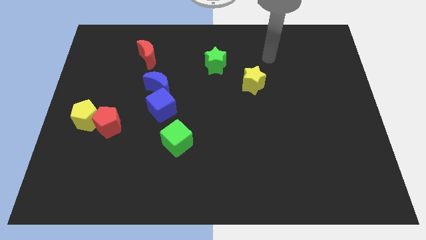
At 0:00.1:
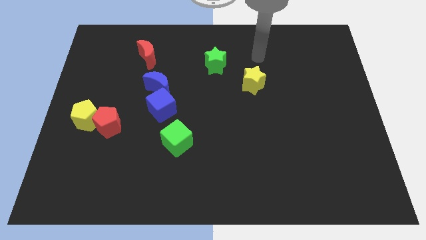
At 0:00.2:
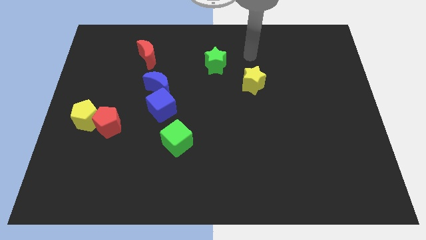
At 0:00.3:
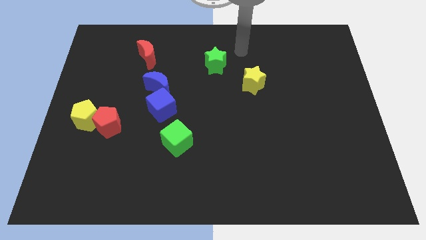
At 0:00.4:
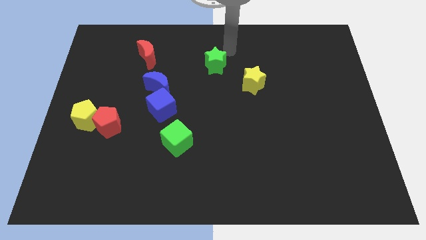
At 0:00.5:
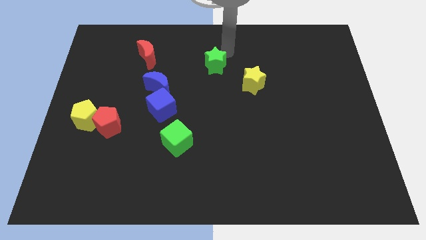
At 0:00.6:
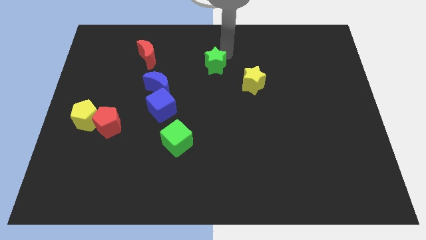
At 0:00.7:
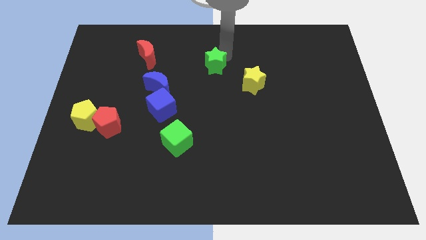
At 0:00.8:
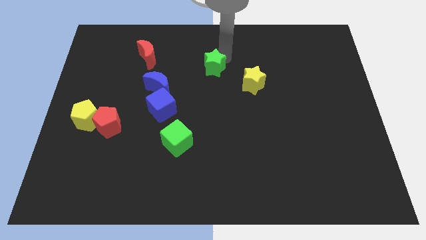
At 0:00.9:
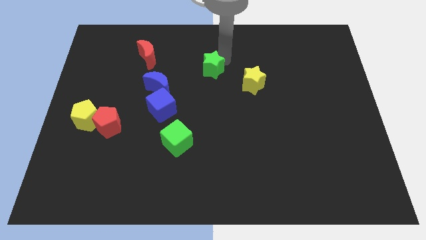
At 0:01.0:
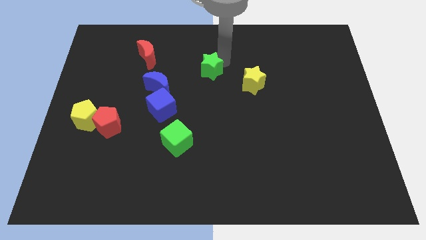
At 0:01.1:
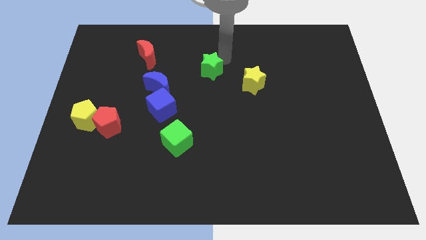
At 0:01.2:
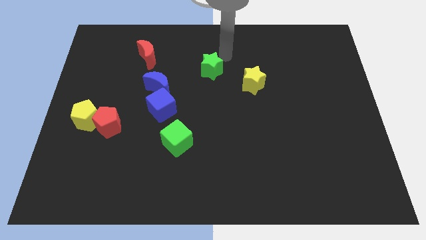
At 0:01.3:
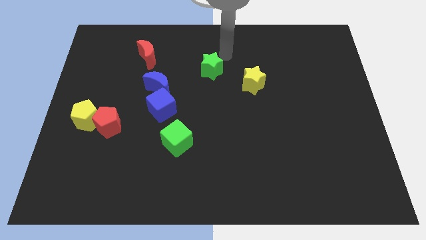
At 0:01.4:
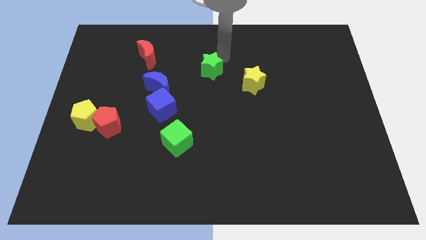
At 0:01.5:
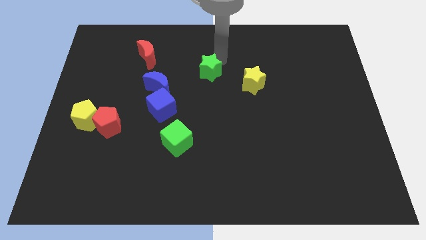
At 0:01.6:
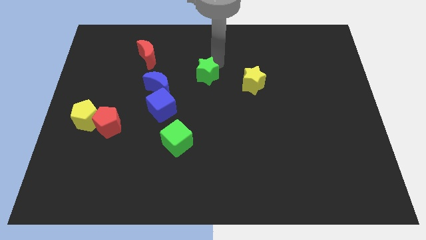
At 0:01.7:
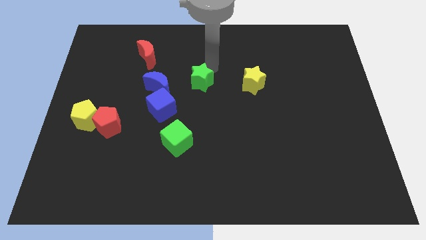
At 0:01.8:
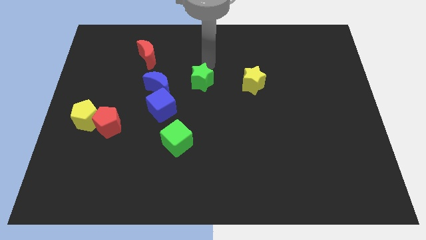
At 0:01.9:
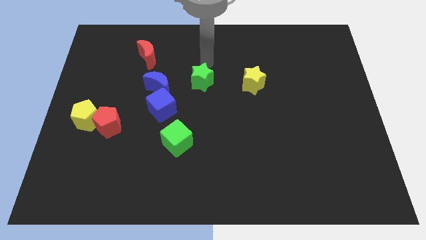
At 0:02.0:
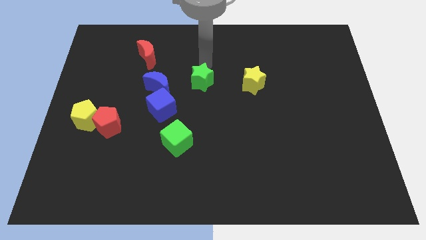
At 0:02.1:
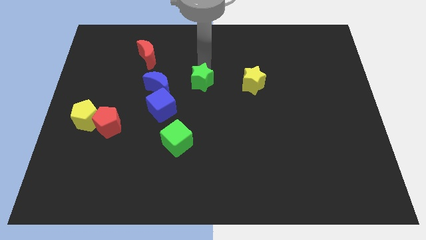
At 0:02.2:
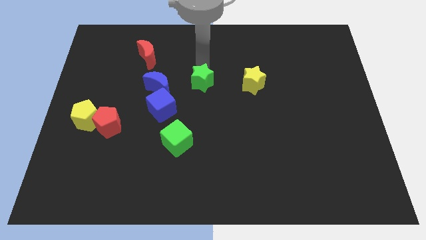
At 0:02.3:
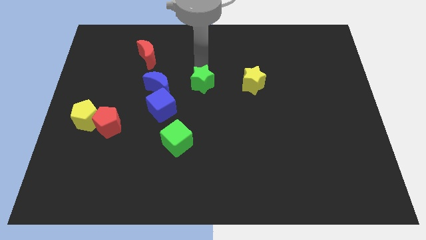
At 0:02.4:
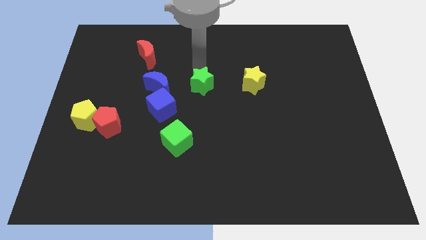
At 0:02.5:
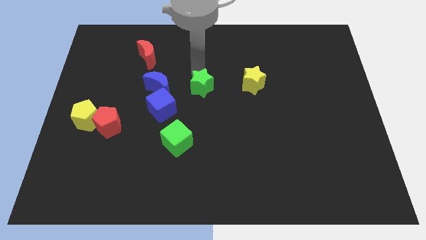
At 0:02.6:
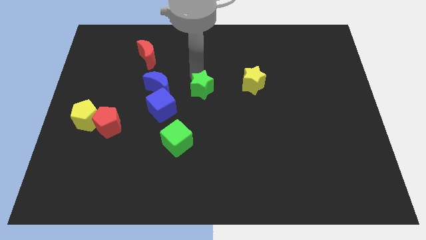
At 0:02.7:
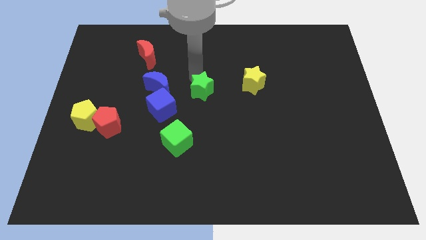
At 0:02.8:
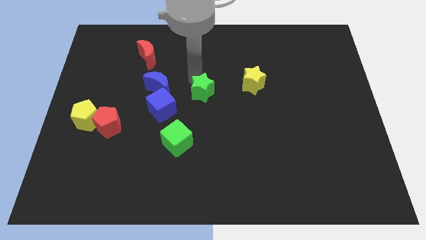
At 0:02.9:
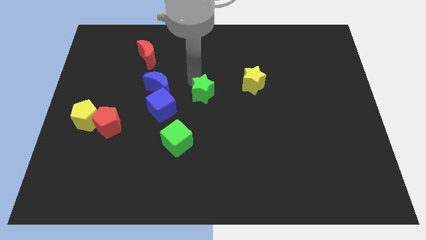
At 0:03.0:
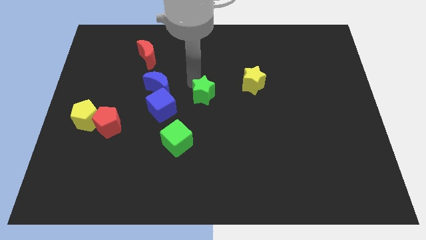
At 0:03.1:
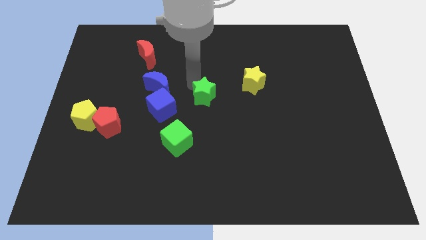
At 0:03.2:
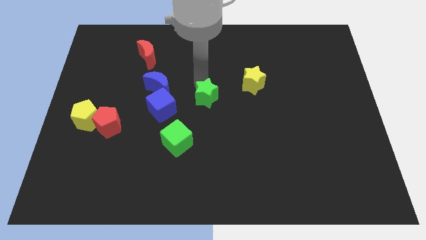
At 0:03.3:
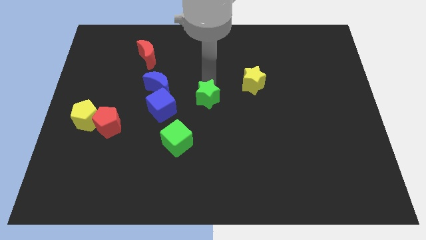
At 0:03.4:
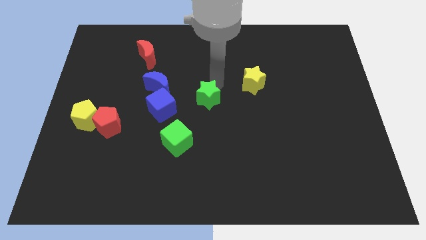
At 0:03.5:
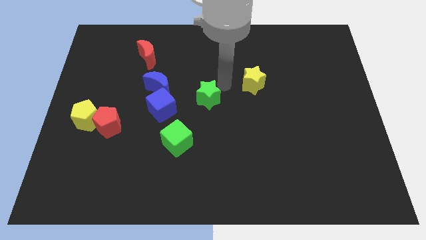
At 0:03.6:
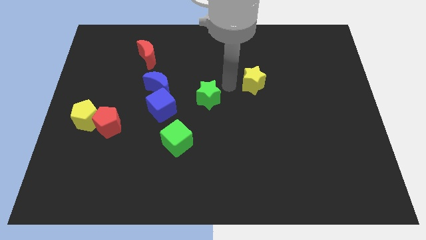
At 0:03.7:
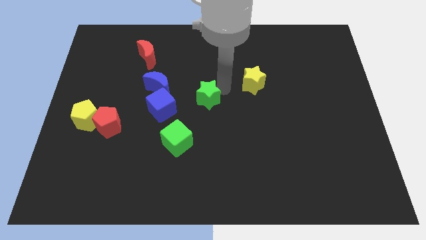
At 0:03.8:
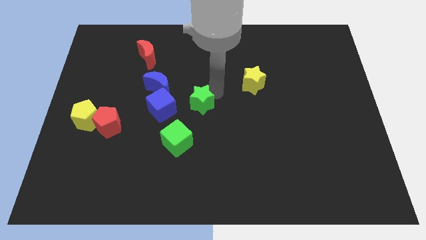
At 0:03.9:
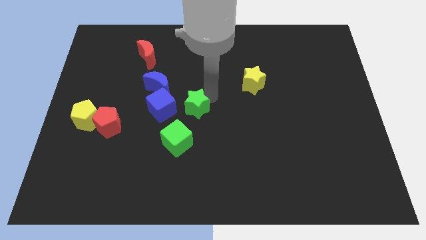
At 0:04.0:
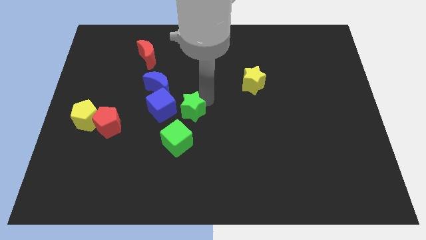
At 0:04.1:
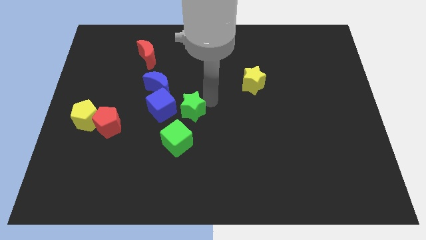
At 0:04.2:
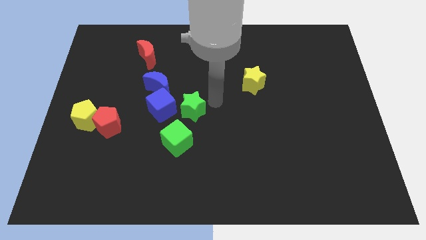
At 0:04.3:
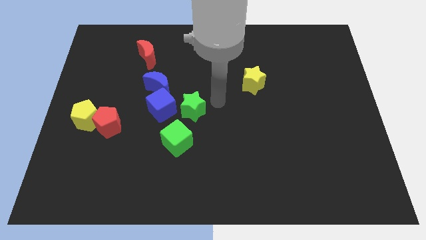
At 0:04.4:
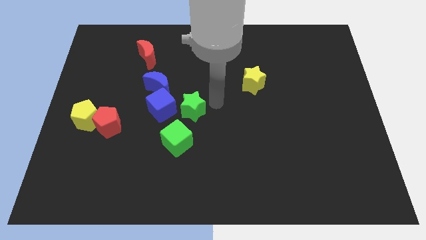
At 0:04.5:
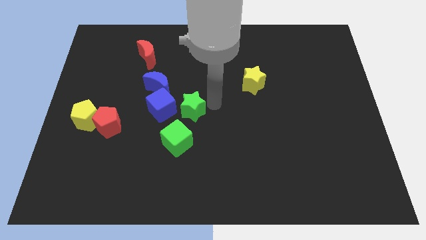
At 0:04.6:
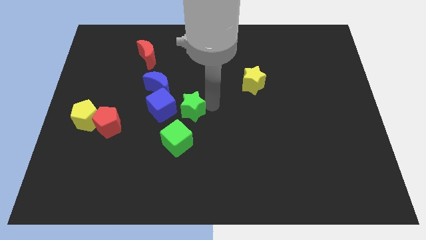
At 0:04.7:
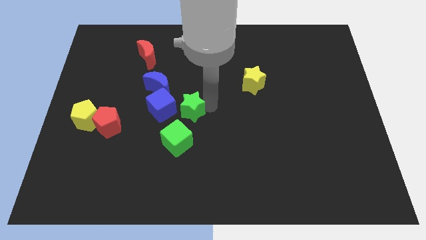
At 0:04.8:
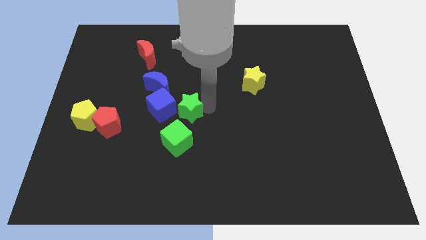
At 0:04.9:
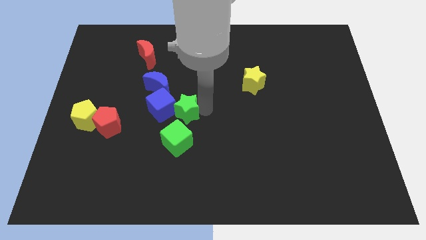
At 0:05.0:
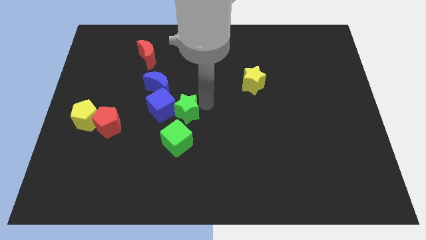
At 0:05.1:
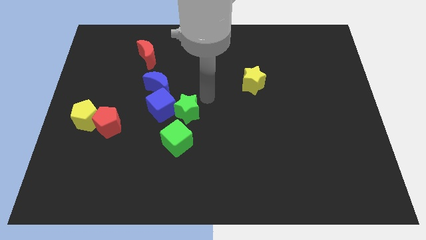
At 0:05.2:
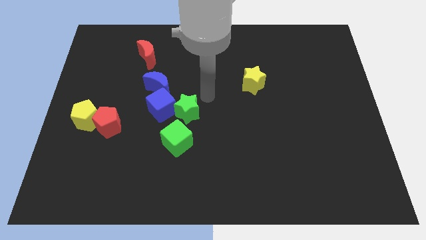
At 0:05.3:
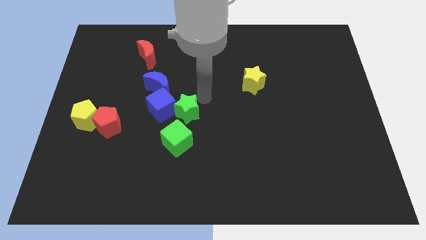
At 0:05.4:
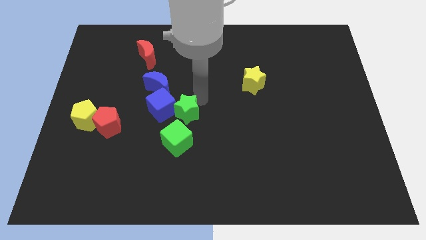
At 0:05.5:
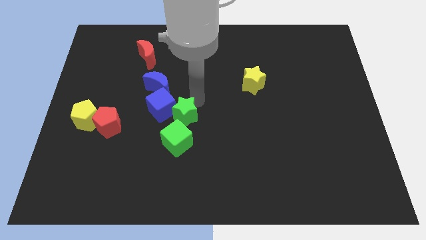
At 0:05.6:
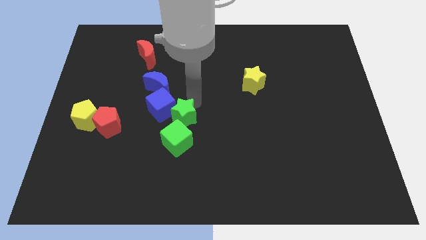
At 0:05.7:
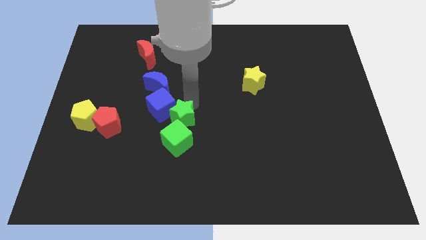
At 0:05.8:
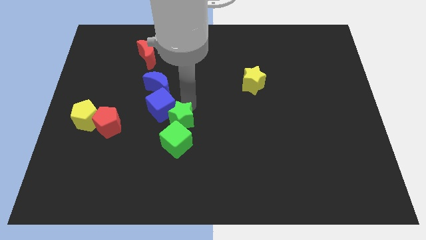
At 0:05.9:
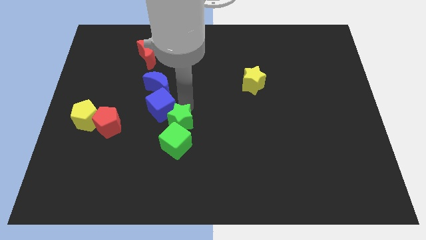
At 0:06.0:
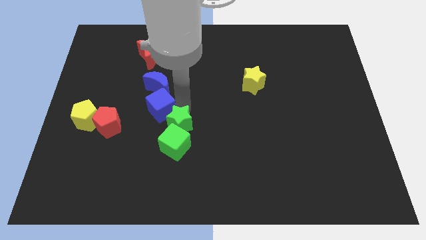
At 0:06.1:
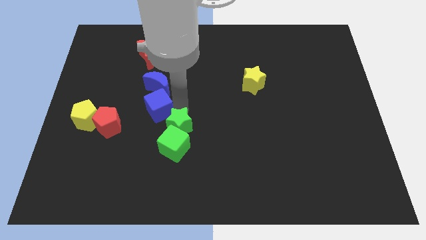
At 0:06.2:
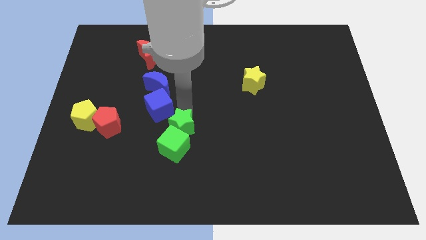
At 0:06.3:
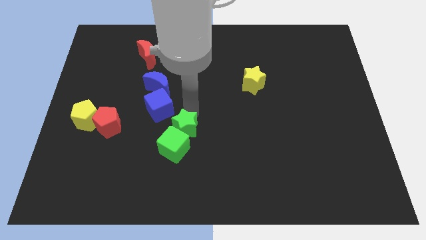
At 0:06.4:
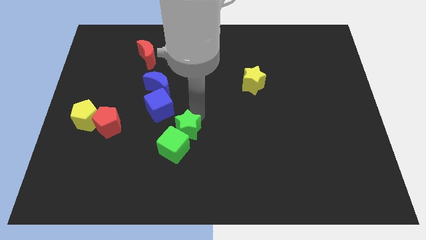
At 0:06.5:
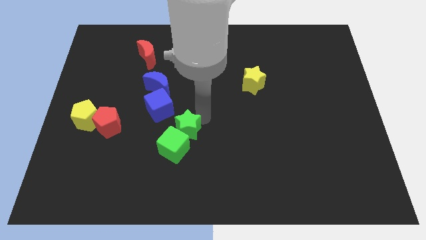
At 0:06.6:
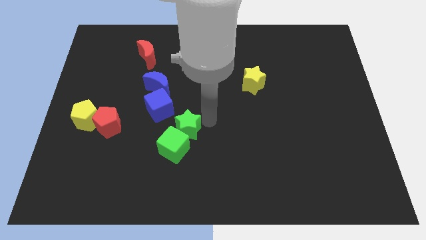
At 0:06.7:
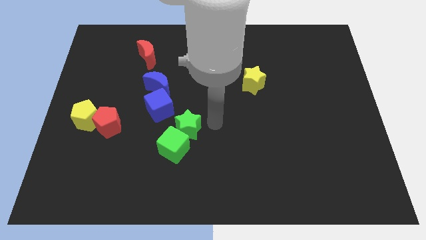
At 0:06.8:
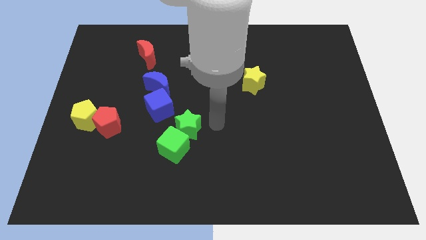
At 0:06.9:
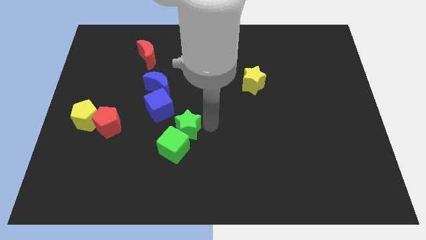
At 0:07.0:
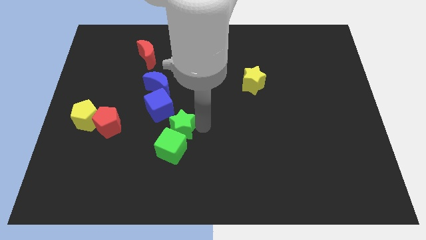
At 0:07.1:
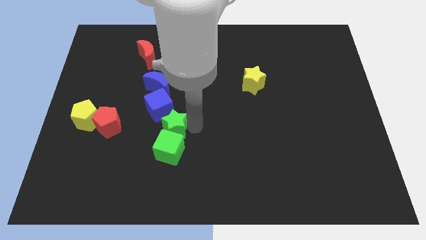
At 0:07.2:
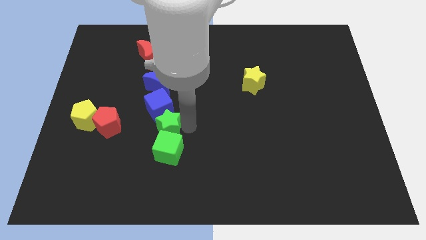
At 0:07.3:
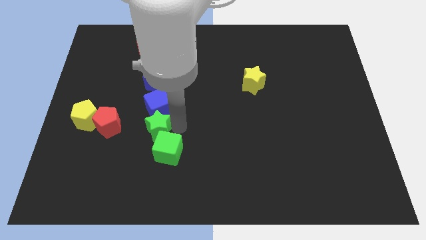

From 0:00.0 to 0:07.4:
put the green star to the bottom left side of the blue cube

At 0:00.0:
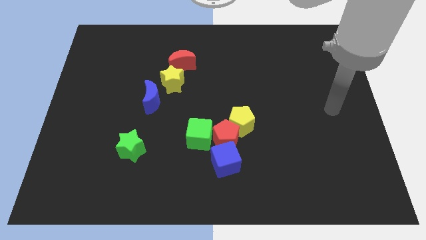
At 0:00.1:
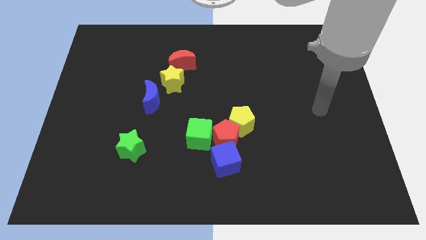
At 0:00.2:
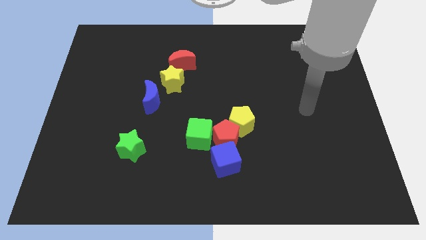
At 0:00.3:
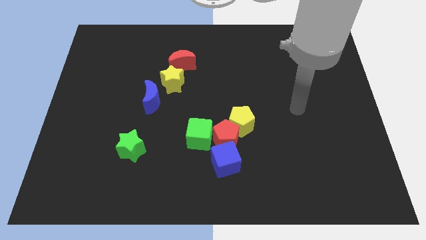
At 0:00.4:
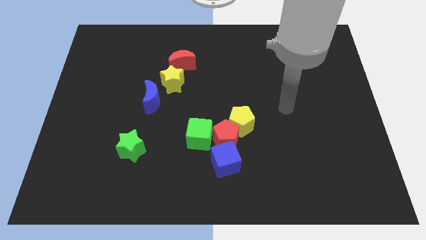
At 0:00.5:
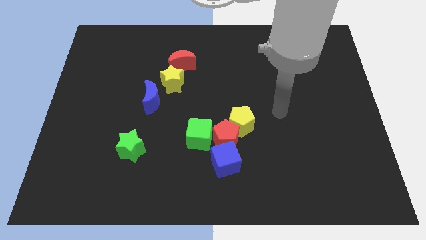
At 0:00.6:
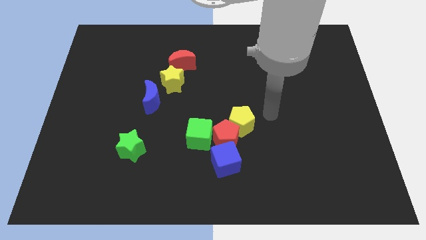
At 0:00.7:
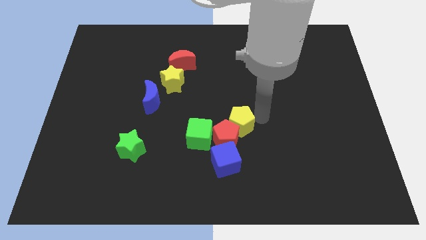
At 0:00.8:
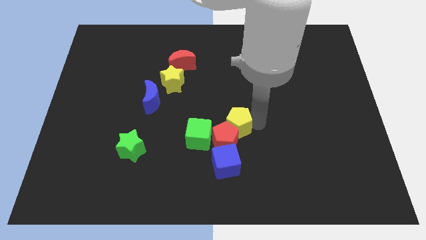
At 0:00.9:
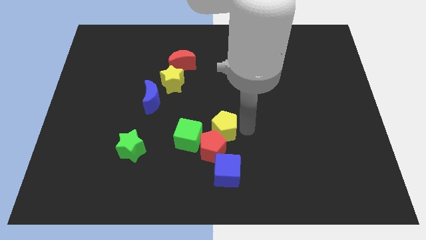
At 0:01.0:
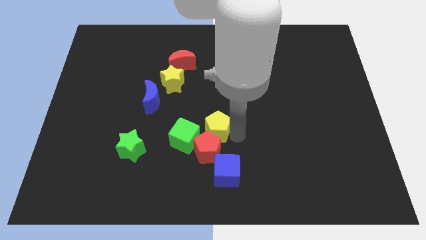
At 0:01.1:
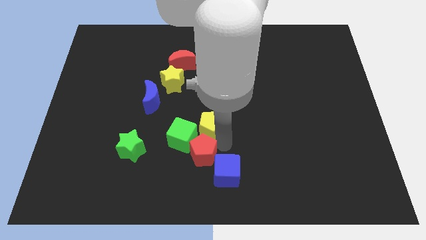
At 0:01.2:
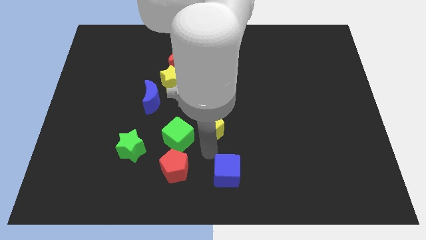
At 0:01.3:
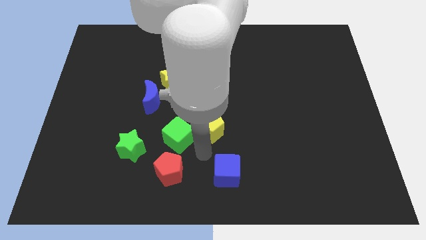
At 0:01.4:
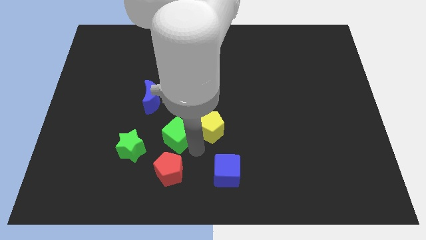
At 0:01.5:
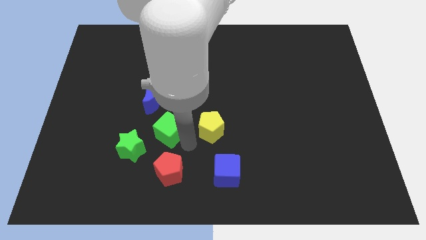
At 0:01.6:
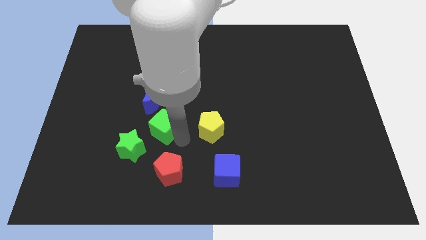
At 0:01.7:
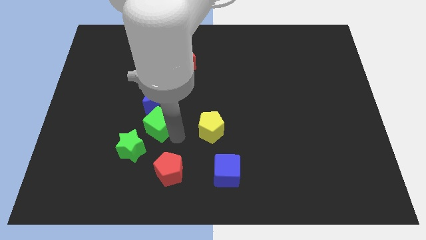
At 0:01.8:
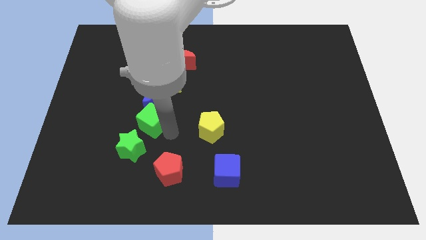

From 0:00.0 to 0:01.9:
put the green cube to the top side of the green star
